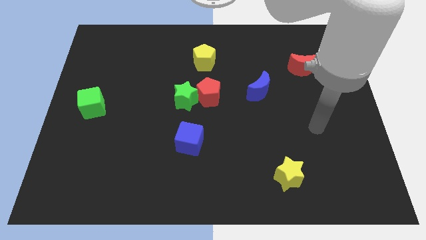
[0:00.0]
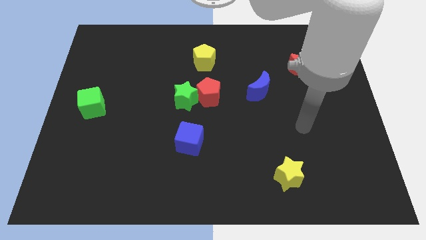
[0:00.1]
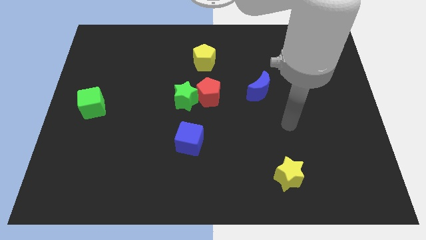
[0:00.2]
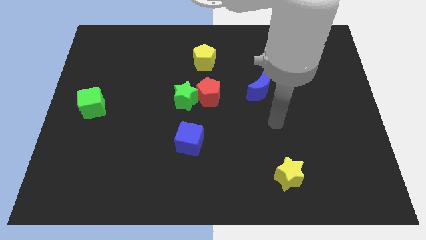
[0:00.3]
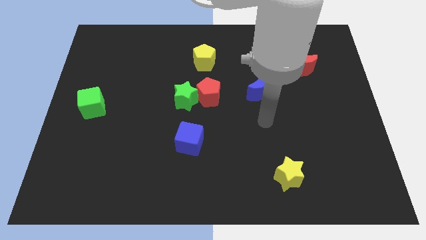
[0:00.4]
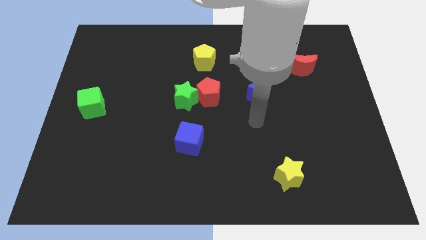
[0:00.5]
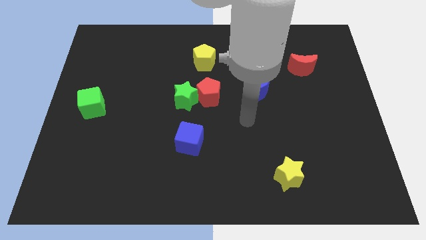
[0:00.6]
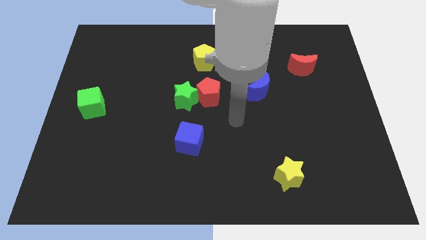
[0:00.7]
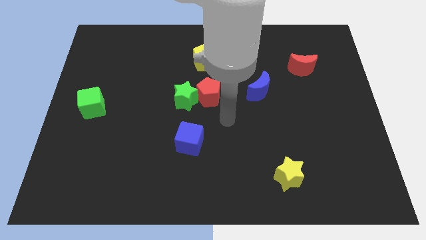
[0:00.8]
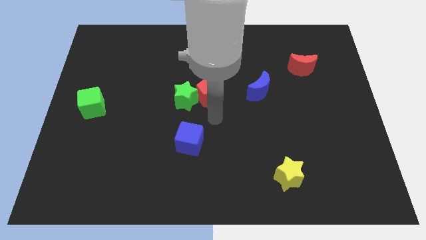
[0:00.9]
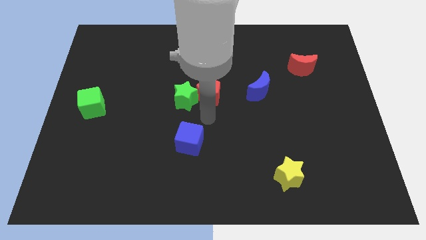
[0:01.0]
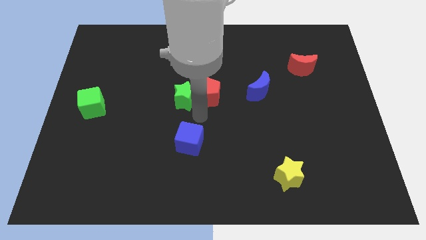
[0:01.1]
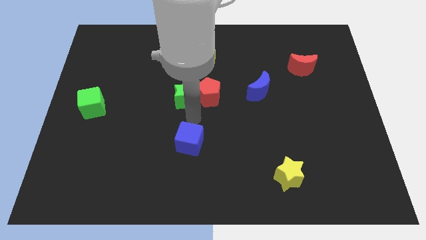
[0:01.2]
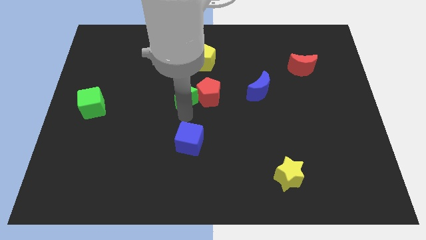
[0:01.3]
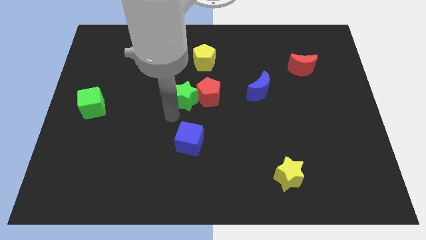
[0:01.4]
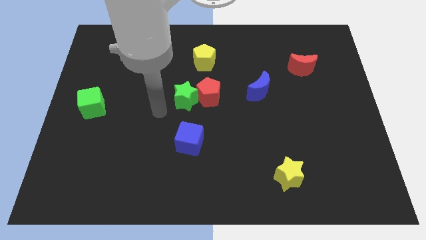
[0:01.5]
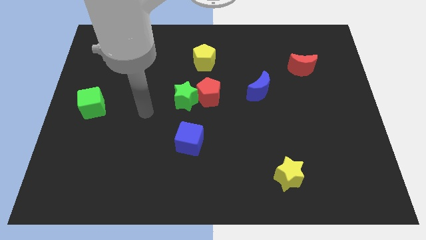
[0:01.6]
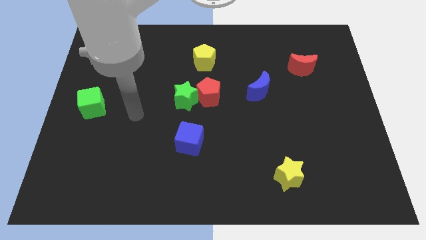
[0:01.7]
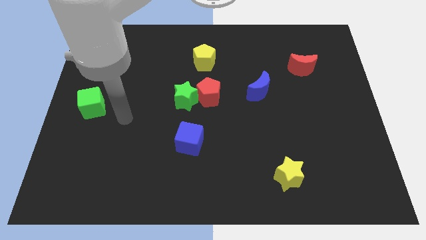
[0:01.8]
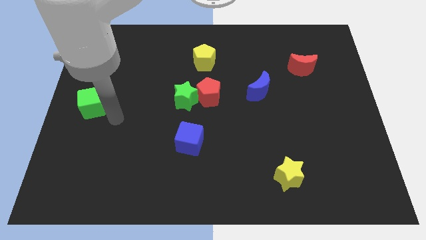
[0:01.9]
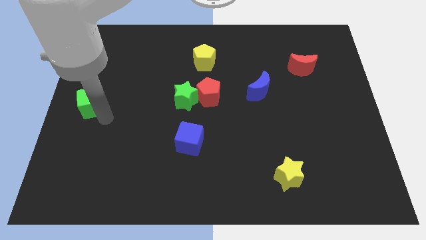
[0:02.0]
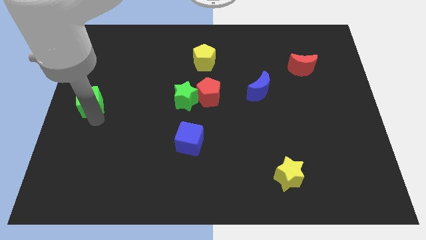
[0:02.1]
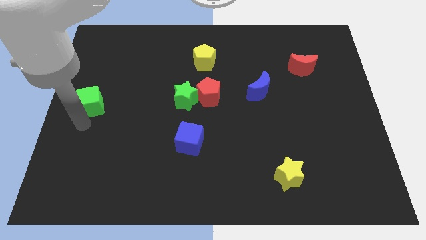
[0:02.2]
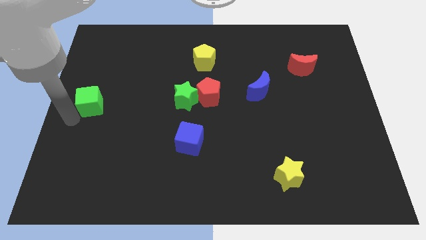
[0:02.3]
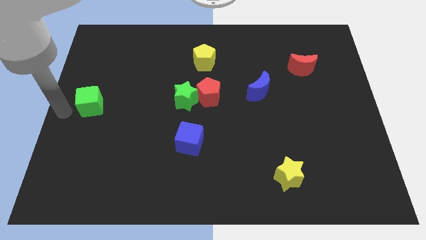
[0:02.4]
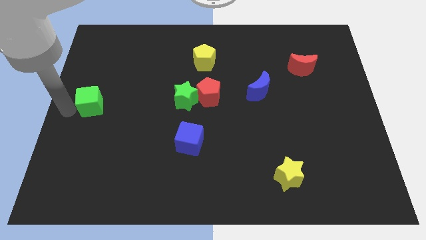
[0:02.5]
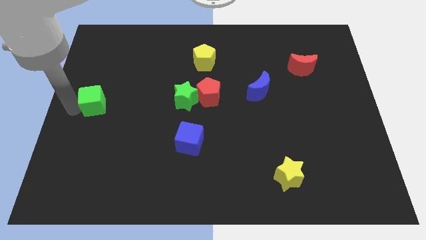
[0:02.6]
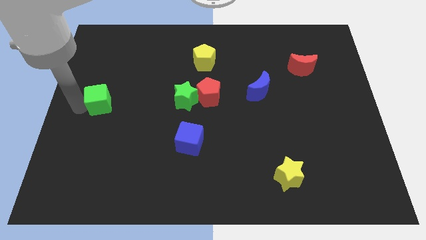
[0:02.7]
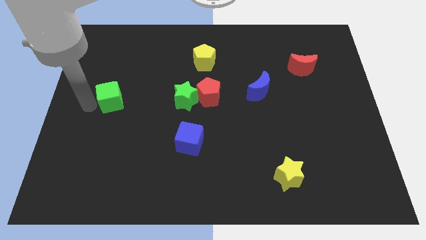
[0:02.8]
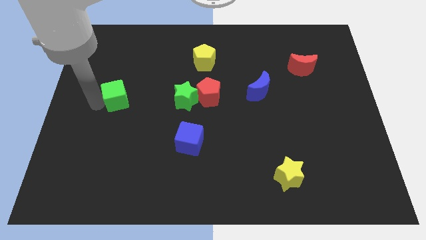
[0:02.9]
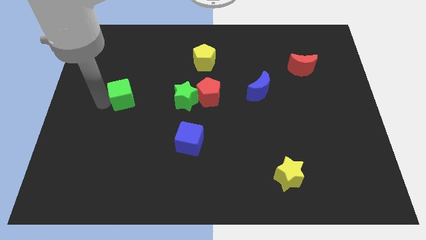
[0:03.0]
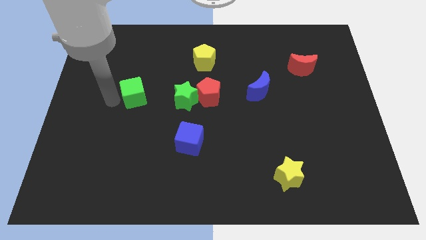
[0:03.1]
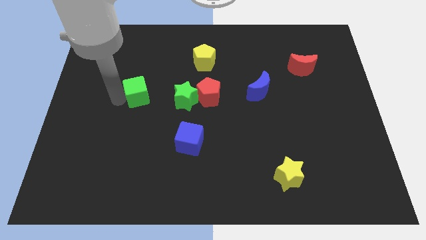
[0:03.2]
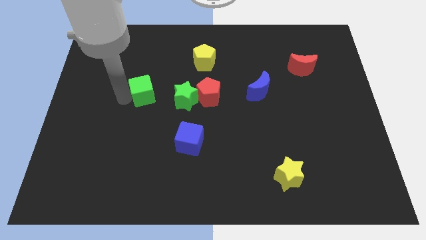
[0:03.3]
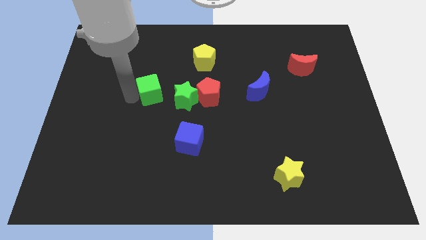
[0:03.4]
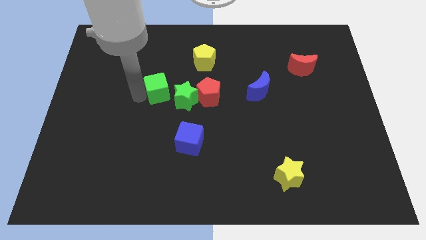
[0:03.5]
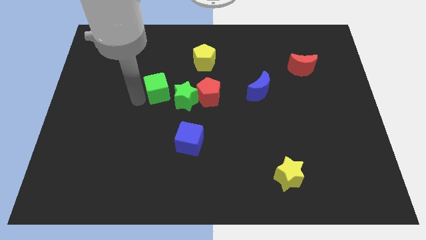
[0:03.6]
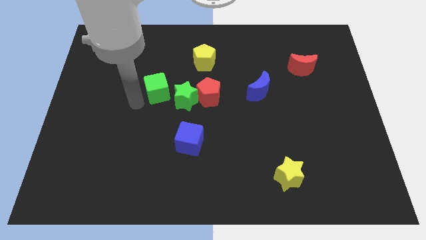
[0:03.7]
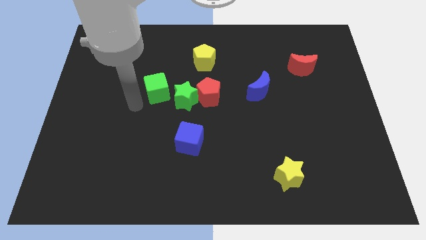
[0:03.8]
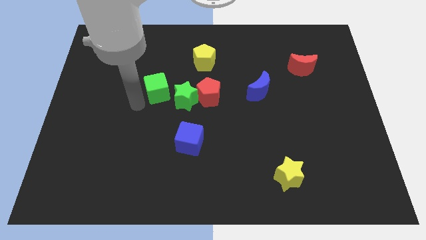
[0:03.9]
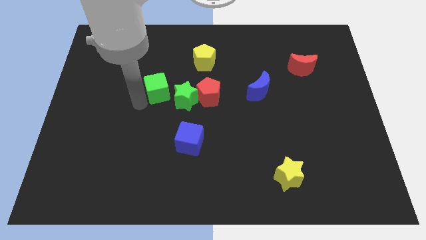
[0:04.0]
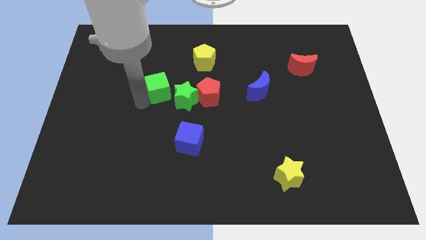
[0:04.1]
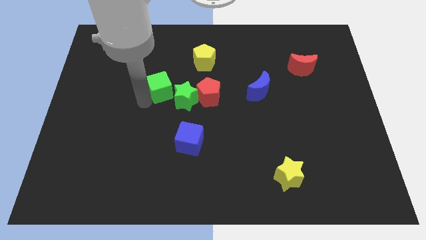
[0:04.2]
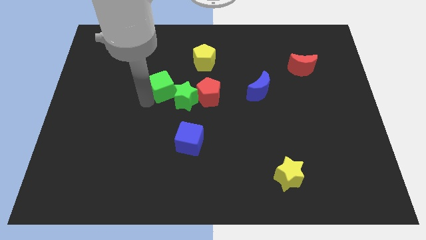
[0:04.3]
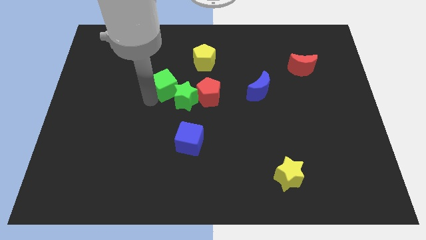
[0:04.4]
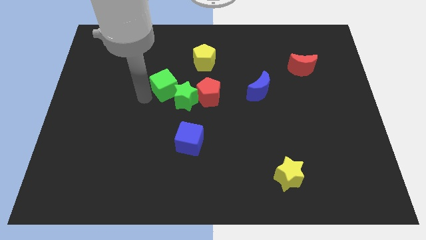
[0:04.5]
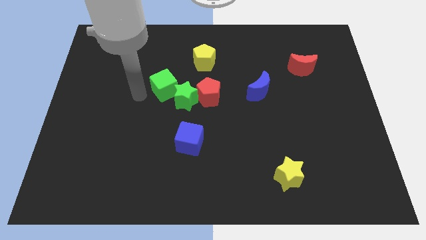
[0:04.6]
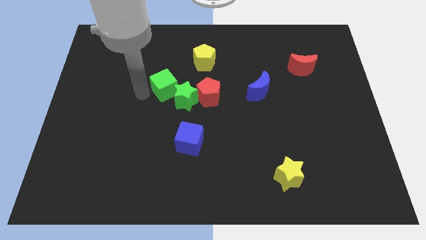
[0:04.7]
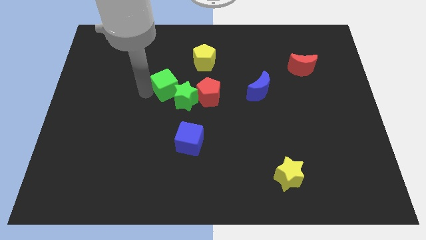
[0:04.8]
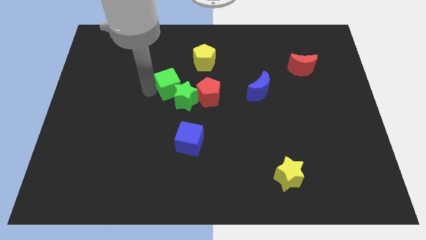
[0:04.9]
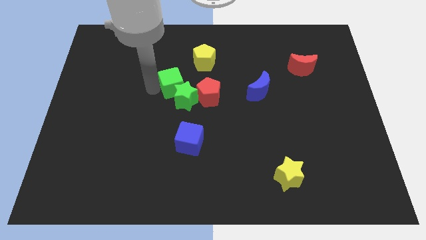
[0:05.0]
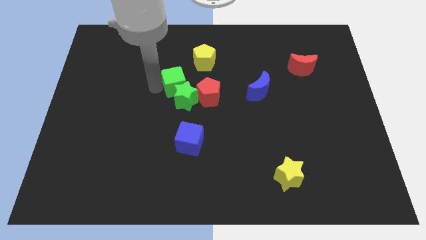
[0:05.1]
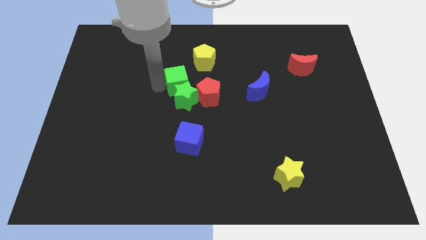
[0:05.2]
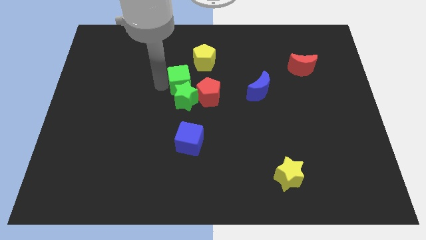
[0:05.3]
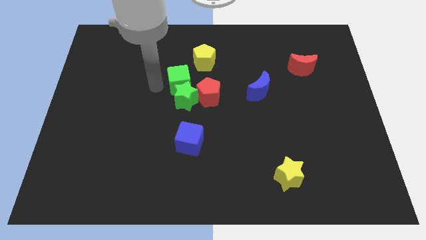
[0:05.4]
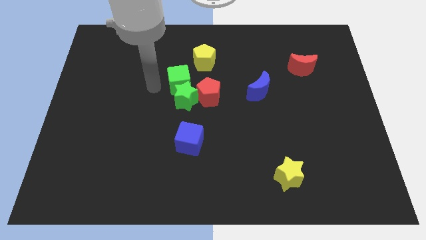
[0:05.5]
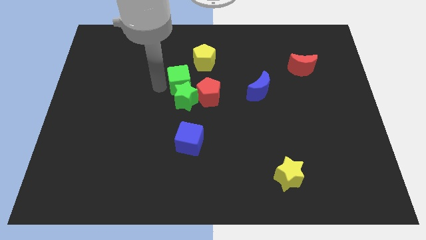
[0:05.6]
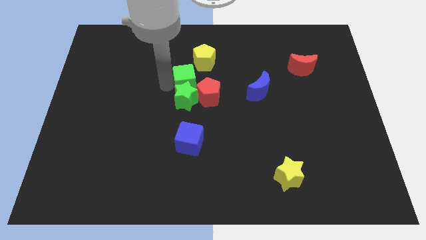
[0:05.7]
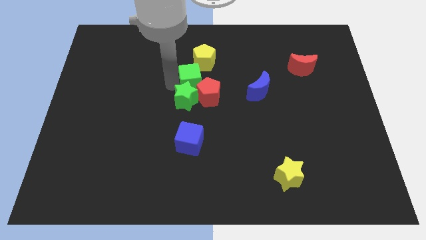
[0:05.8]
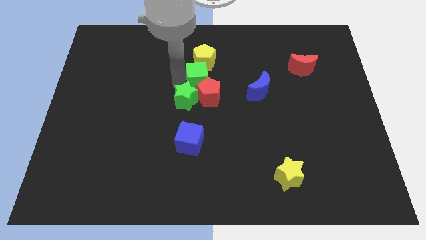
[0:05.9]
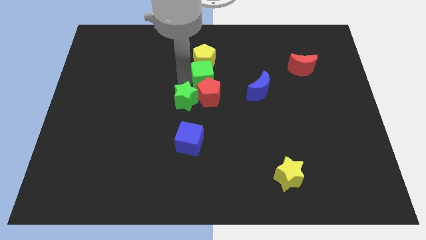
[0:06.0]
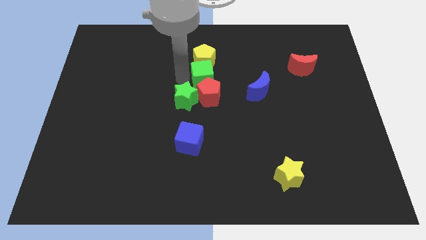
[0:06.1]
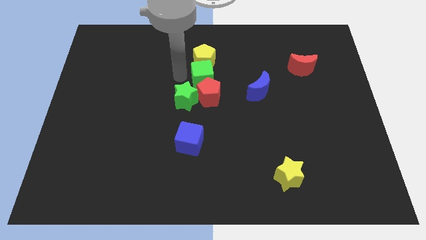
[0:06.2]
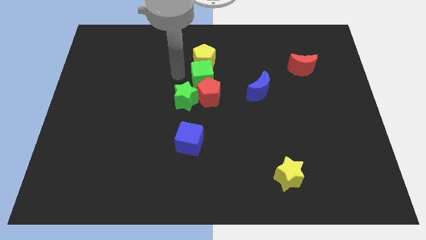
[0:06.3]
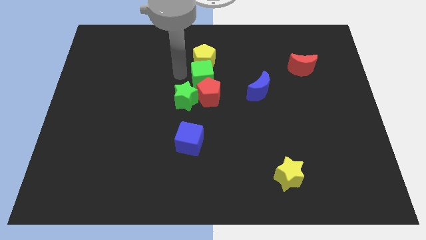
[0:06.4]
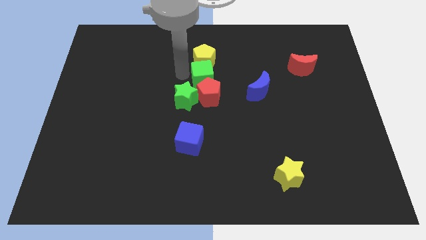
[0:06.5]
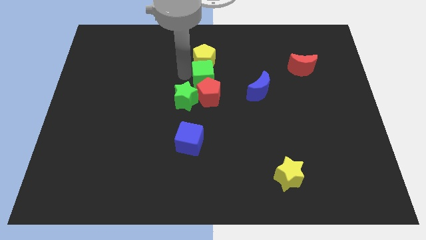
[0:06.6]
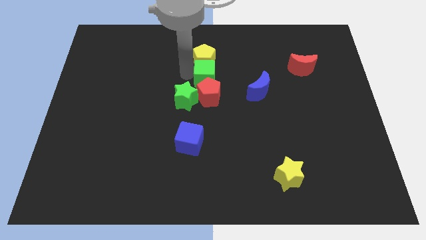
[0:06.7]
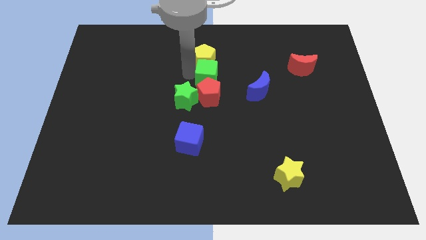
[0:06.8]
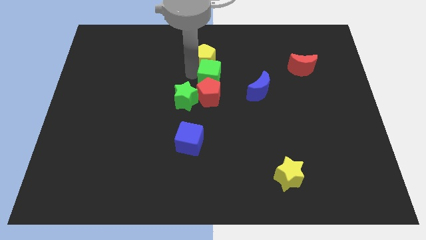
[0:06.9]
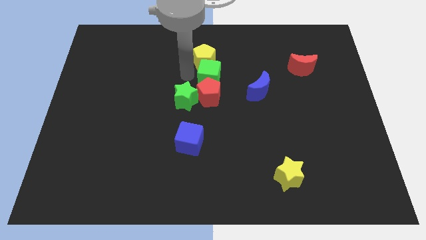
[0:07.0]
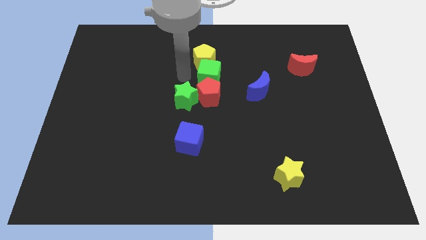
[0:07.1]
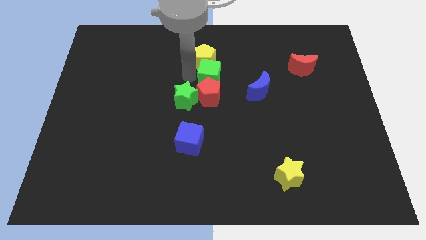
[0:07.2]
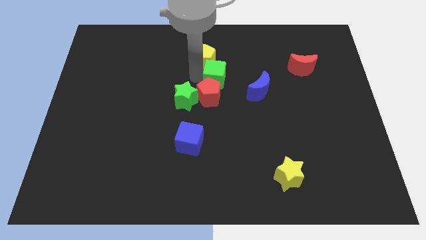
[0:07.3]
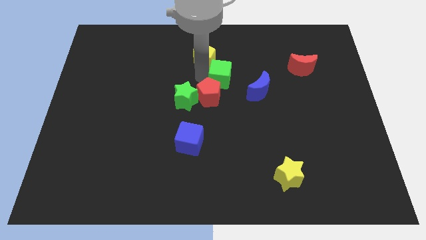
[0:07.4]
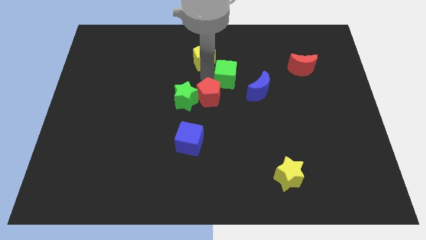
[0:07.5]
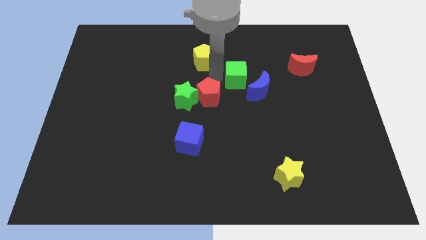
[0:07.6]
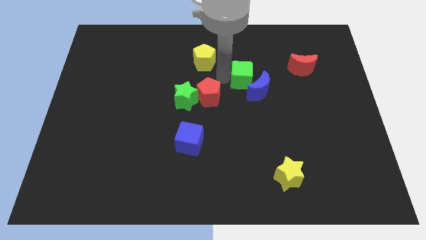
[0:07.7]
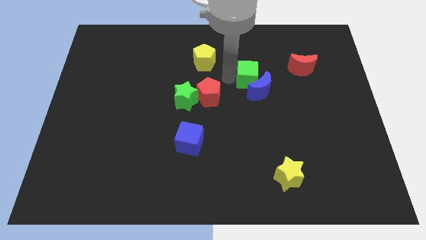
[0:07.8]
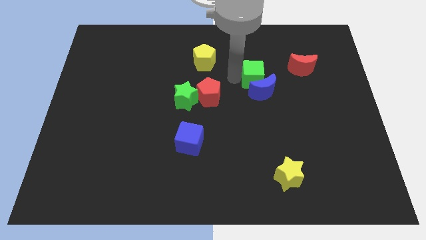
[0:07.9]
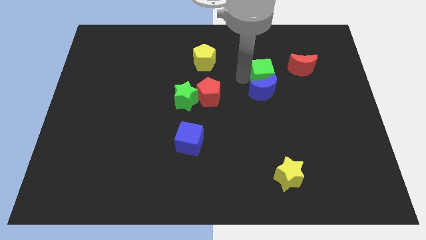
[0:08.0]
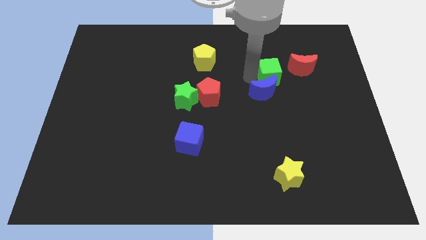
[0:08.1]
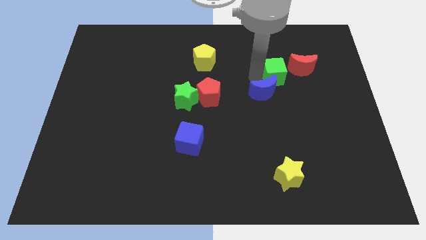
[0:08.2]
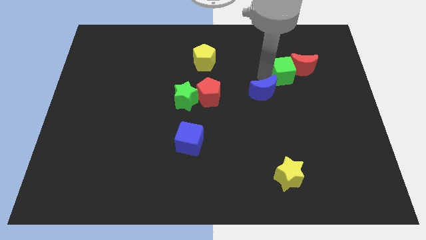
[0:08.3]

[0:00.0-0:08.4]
put the green cube to the red moon
